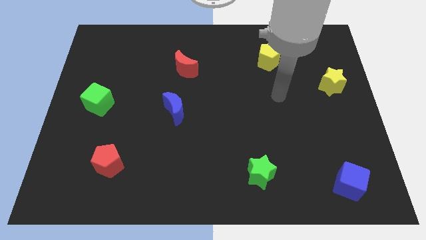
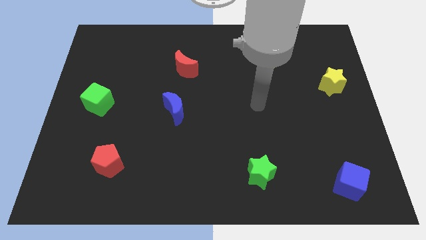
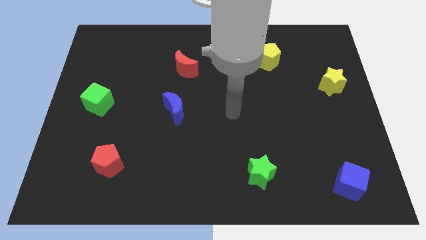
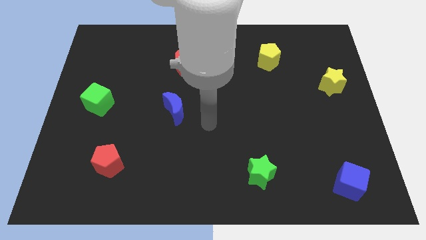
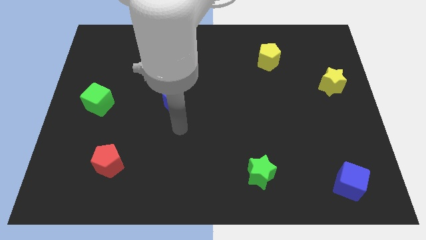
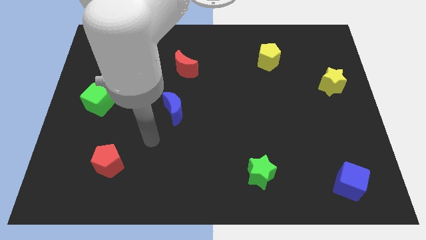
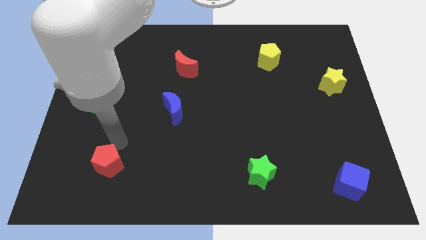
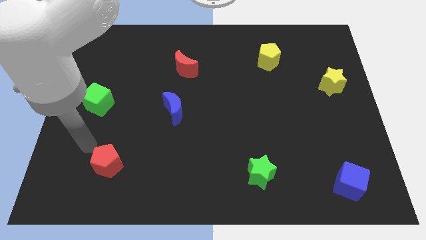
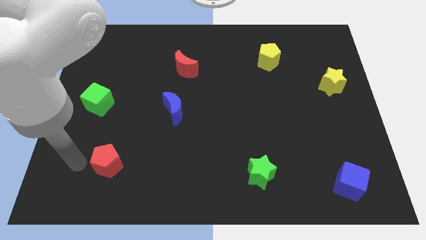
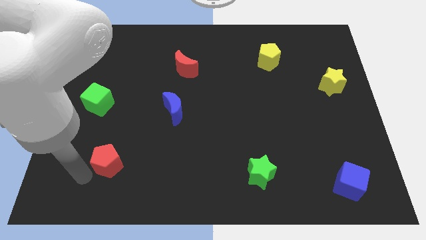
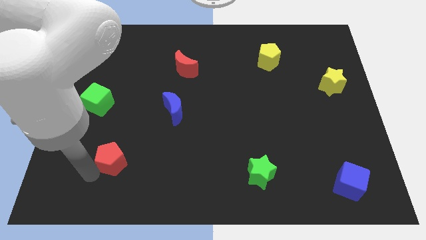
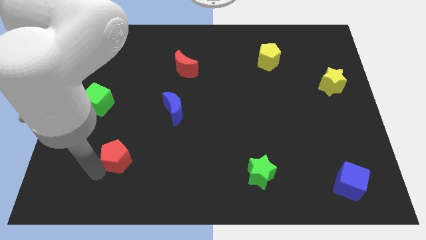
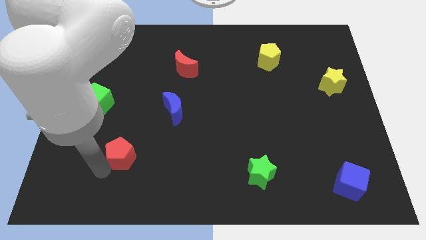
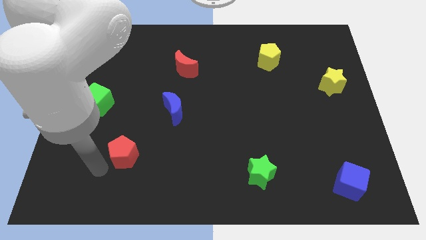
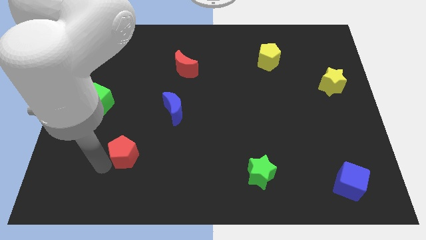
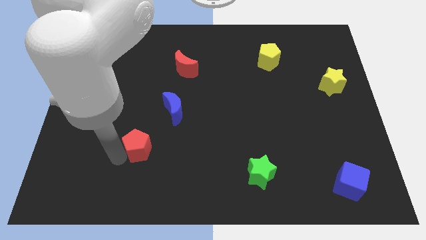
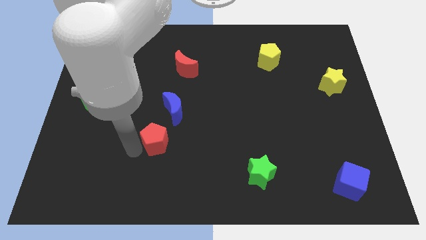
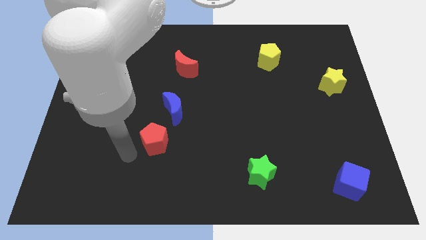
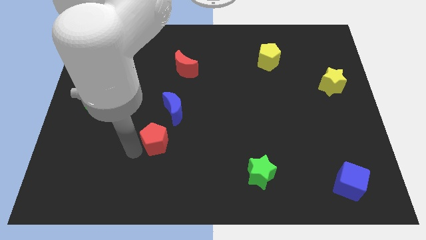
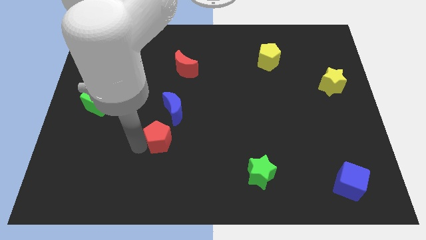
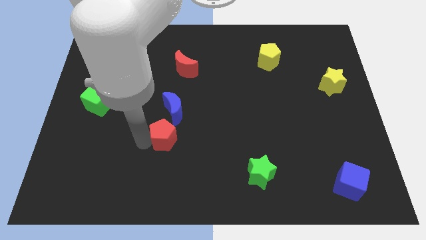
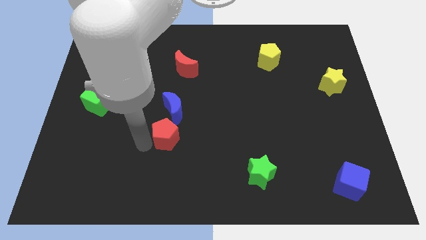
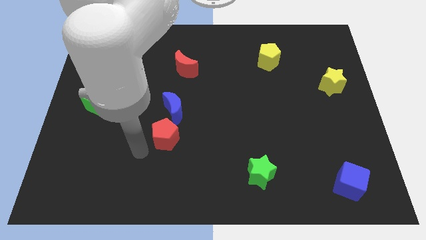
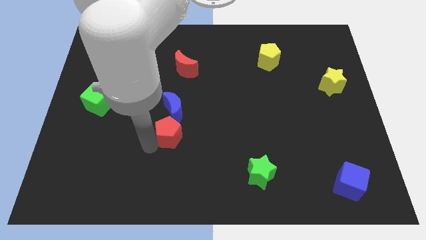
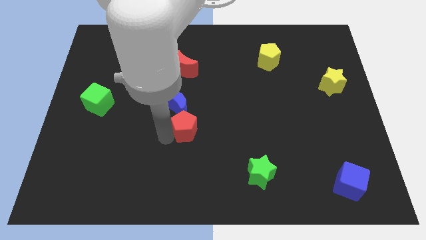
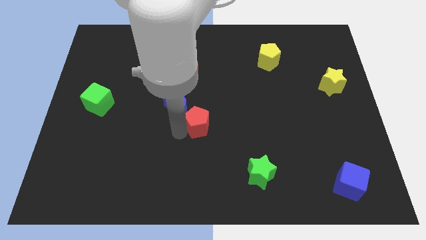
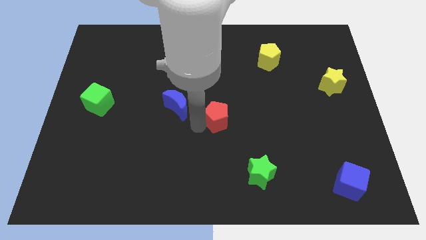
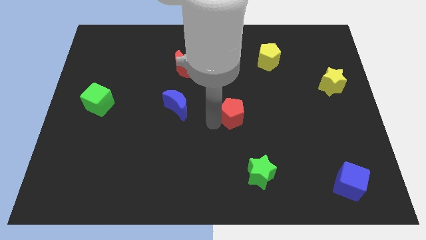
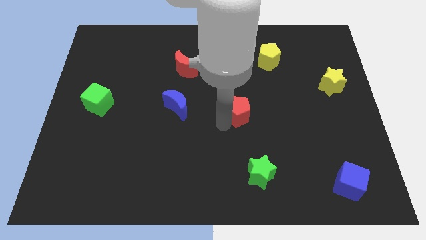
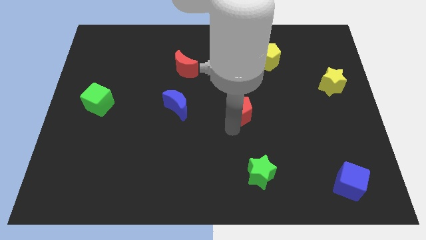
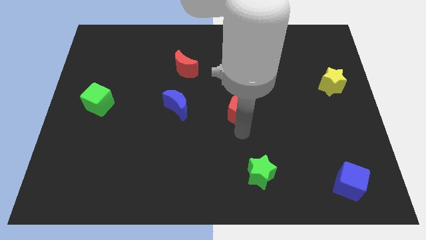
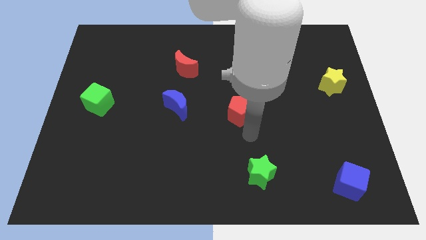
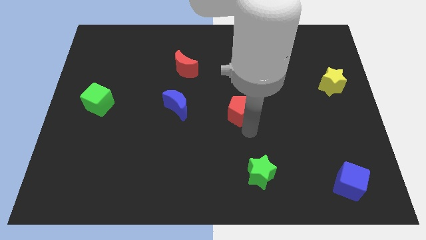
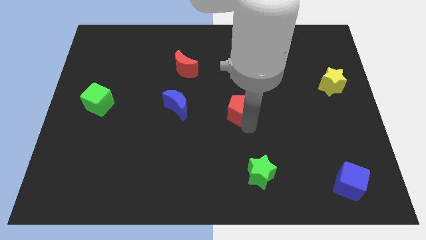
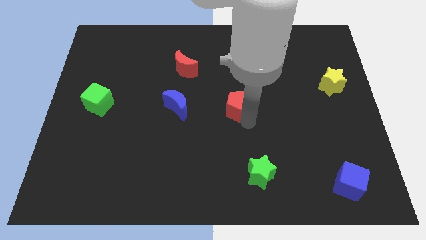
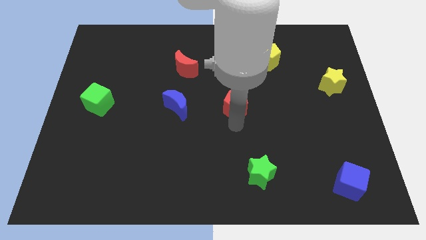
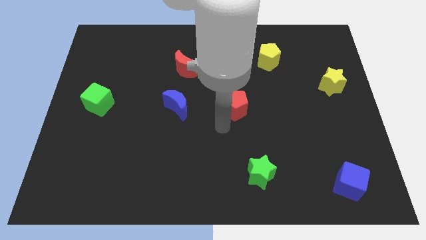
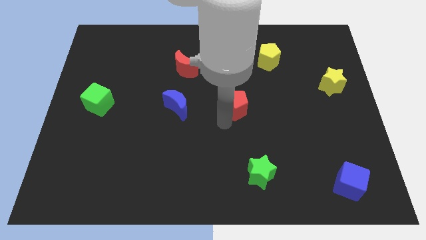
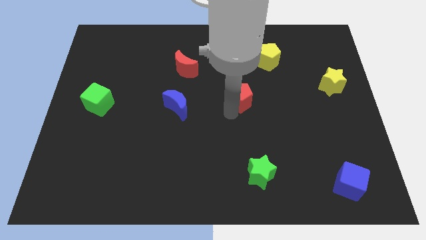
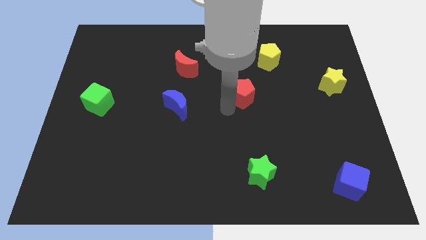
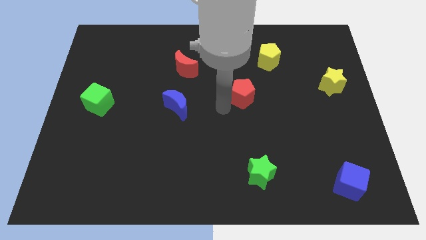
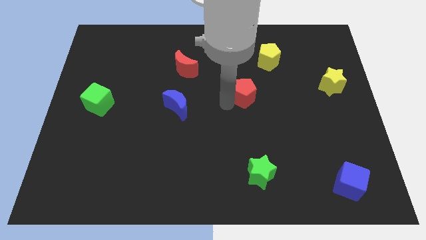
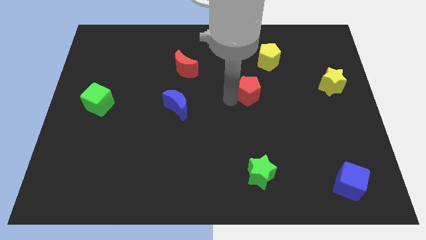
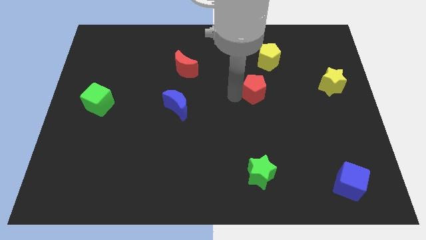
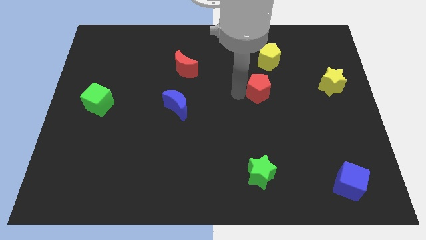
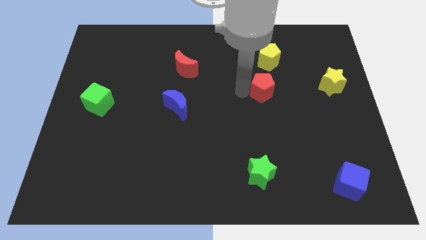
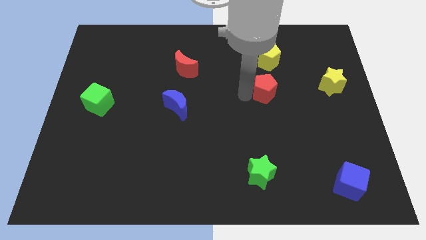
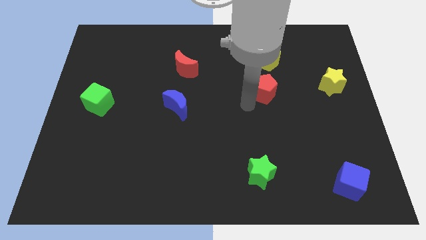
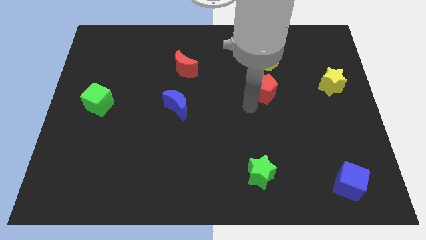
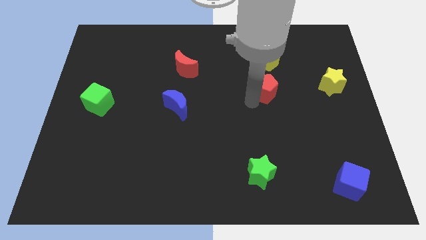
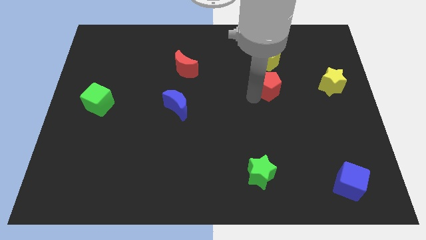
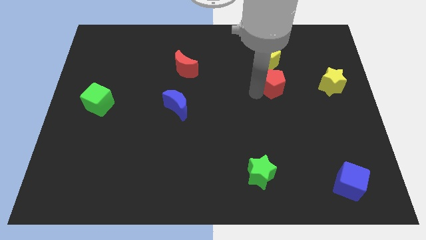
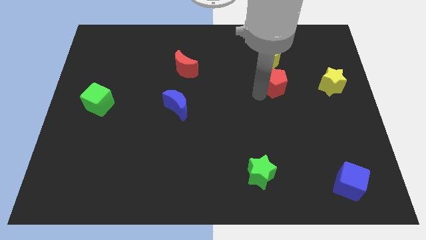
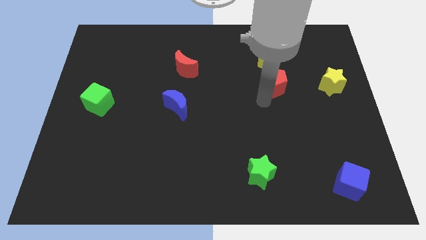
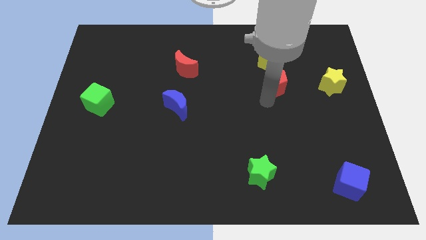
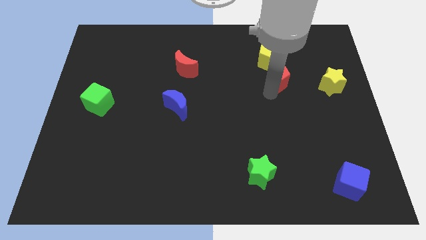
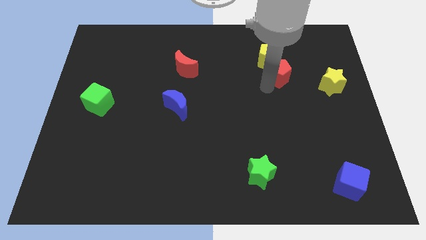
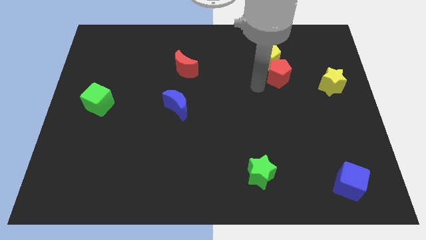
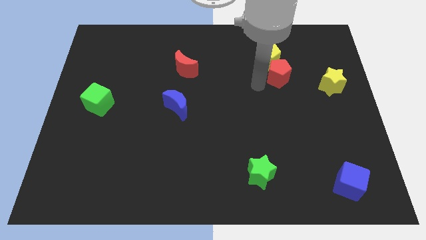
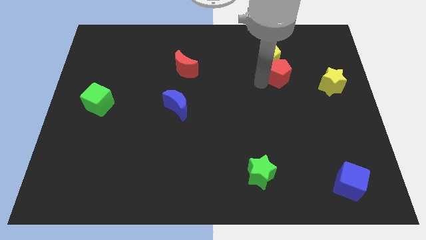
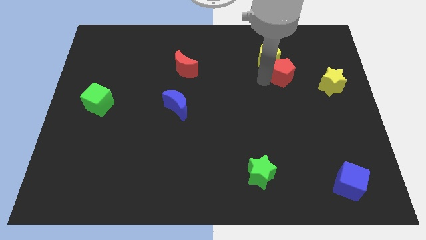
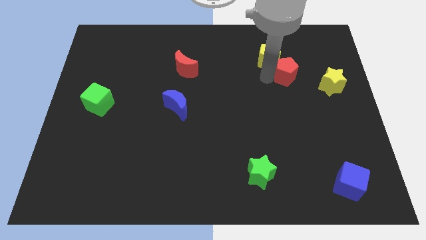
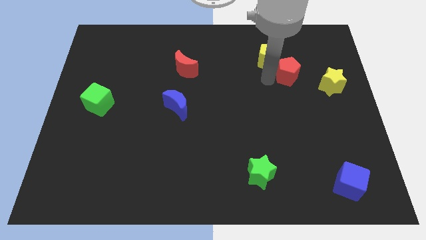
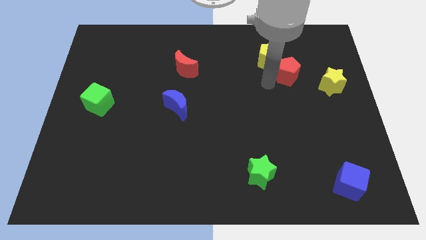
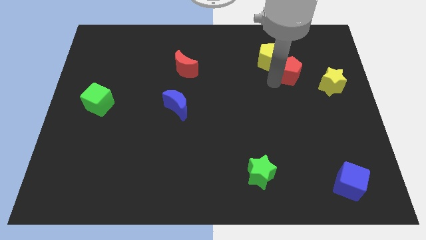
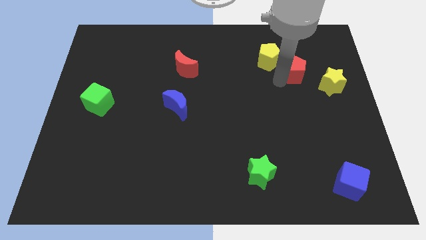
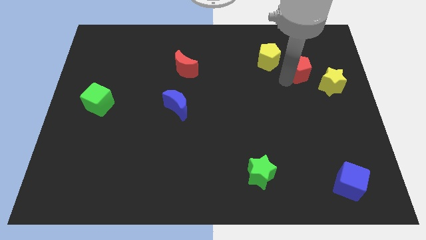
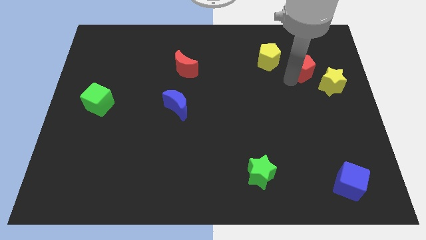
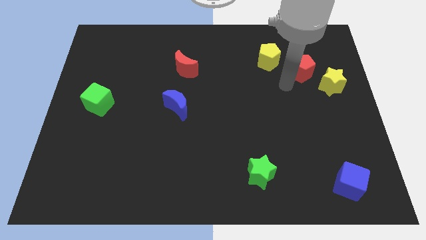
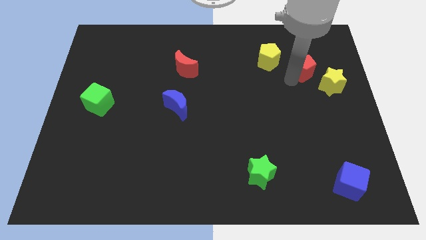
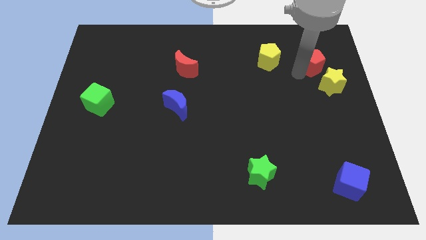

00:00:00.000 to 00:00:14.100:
slide the red pentagon to the top of the yellow star

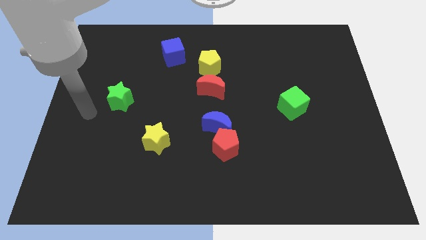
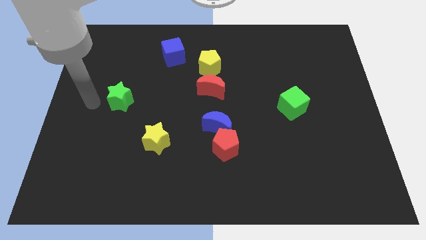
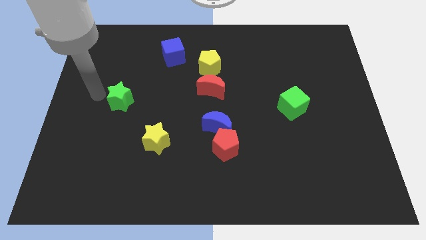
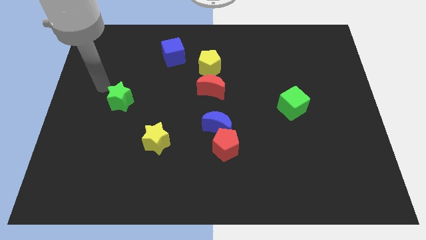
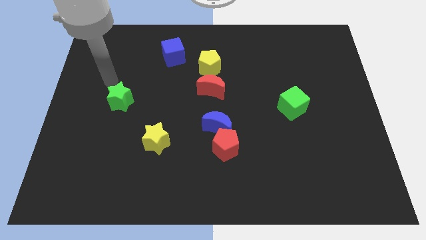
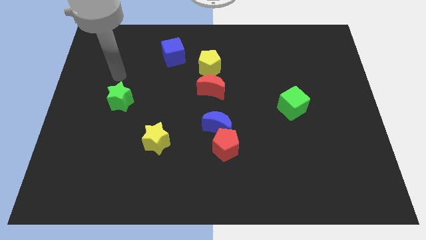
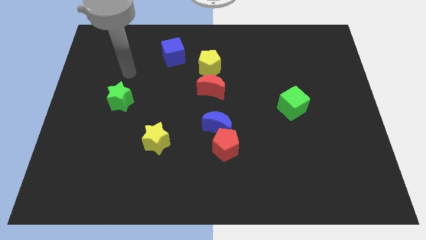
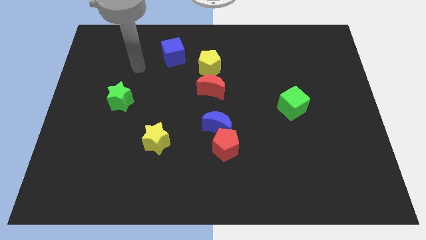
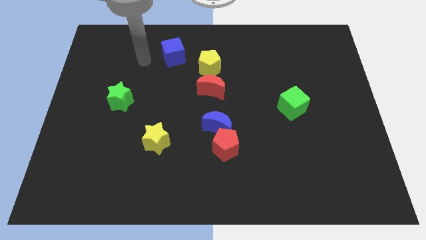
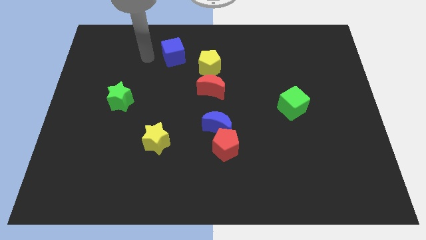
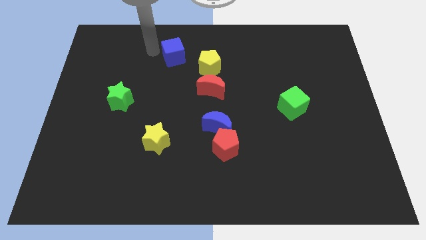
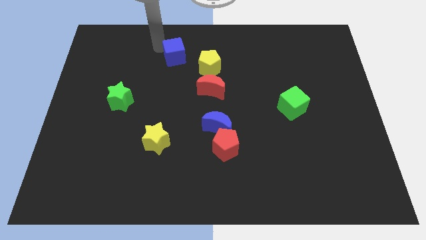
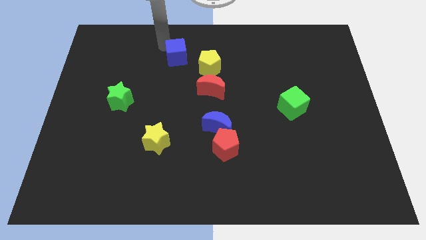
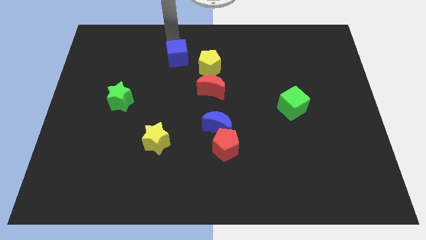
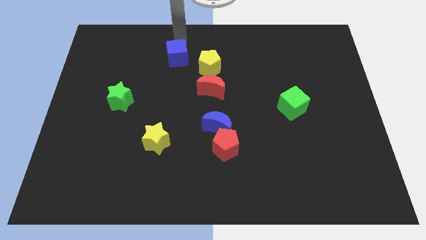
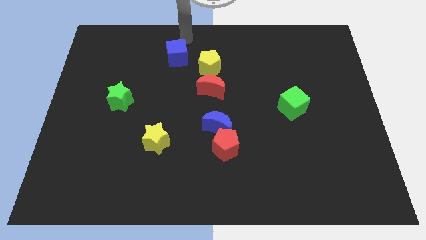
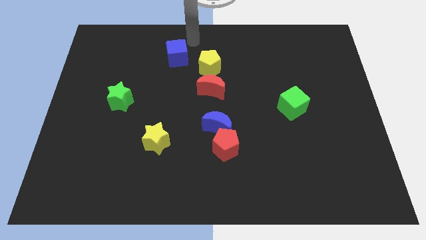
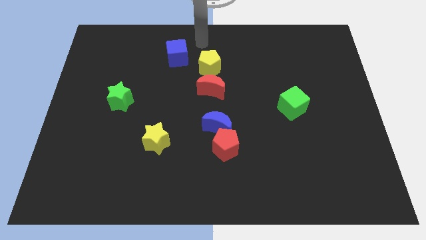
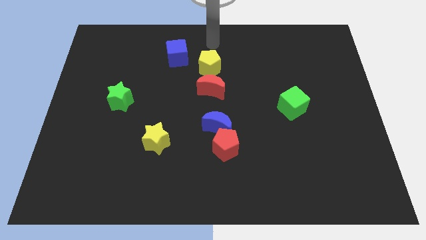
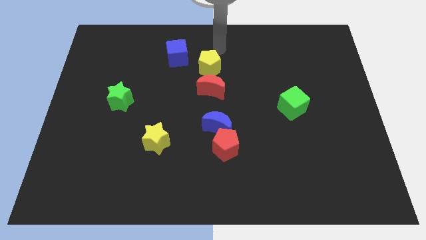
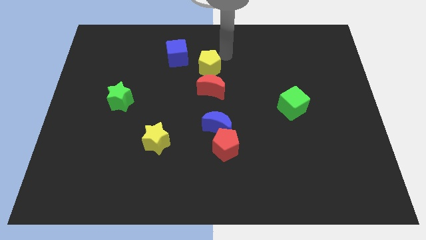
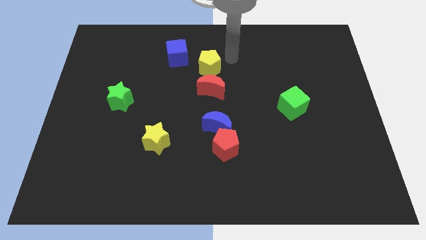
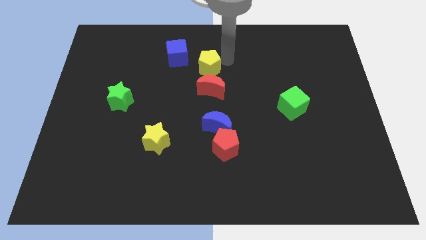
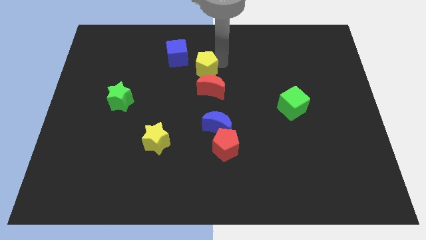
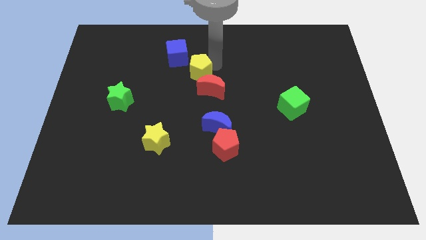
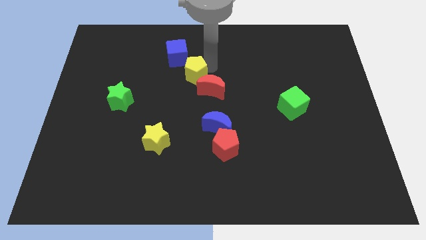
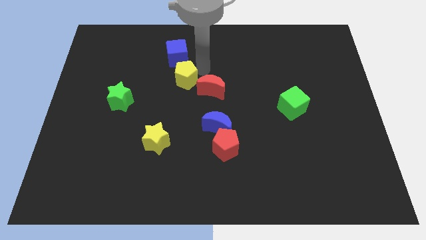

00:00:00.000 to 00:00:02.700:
move the yellow pentagon to the left of the red moon
